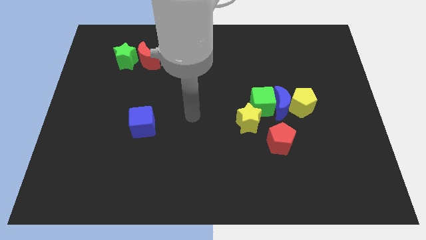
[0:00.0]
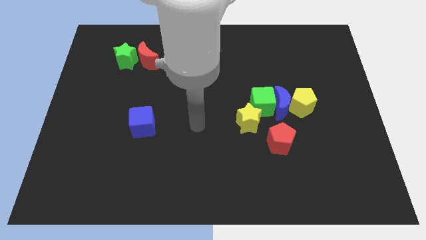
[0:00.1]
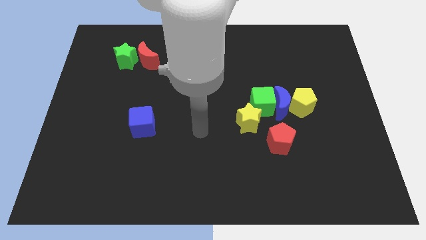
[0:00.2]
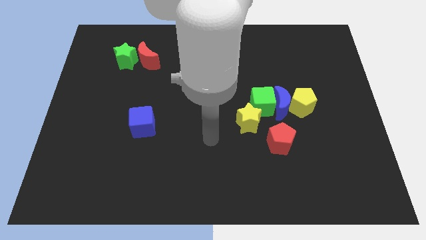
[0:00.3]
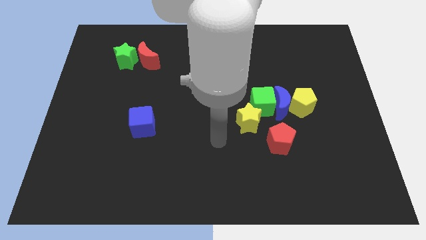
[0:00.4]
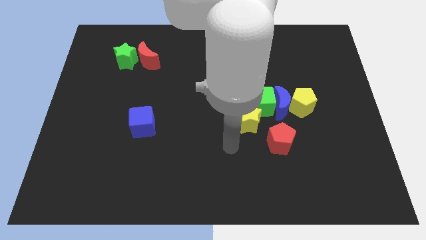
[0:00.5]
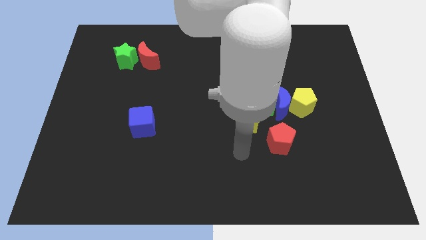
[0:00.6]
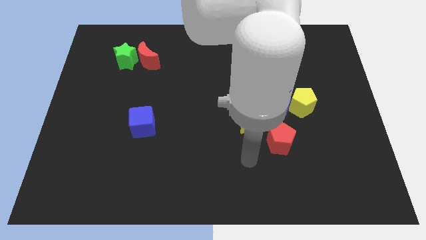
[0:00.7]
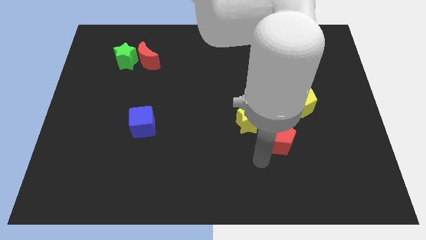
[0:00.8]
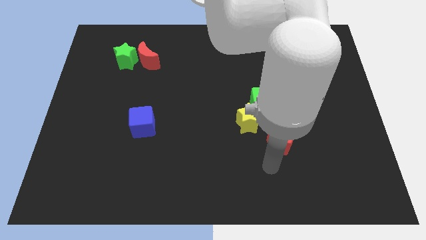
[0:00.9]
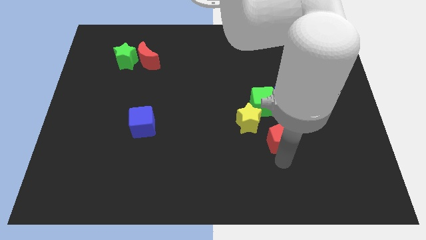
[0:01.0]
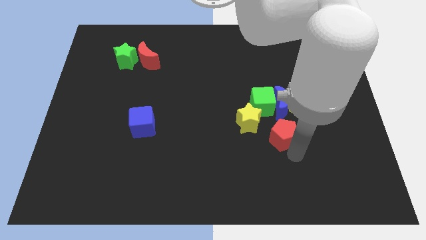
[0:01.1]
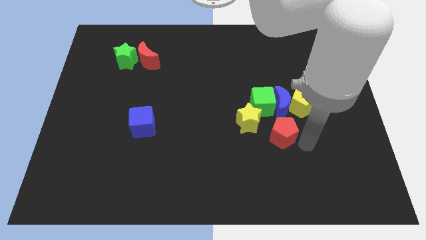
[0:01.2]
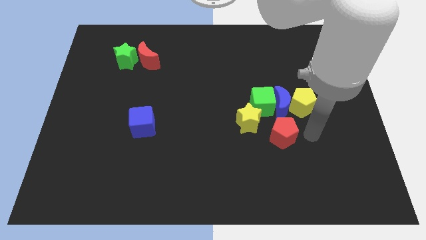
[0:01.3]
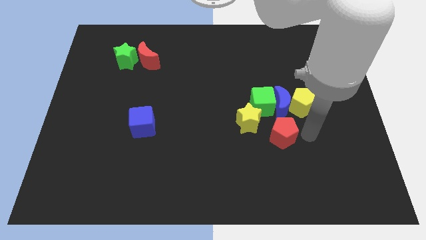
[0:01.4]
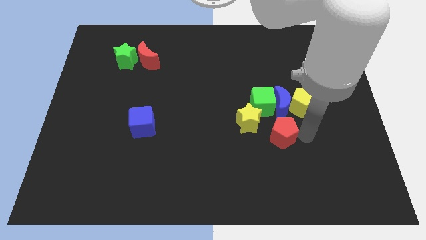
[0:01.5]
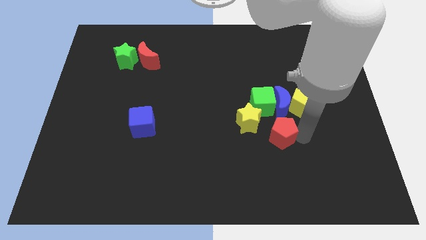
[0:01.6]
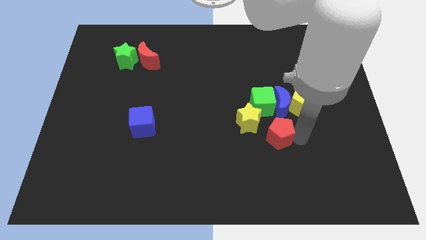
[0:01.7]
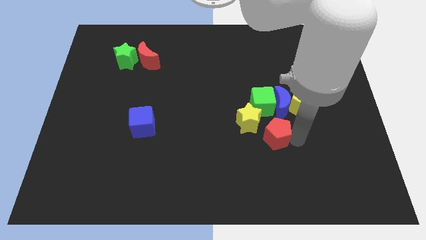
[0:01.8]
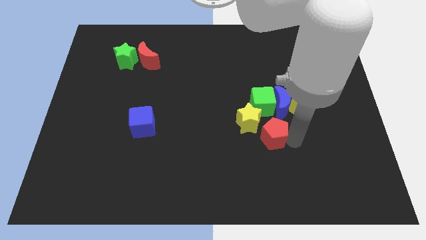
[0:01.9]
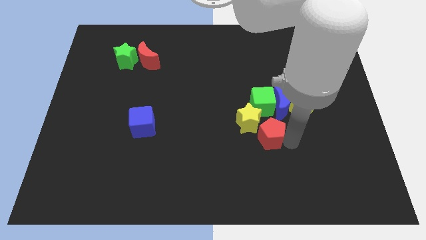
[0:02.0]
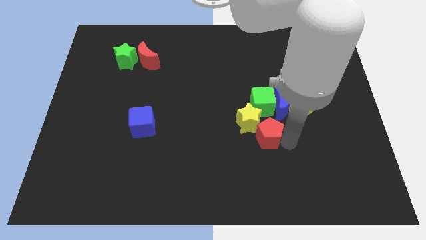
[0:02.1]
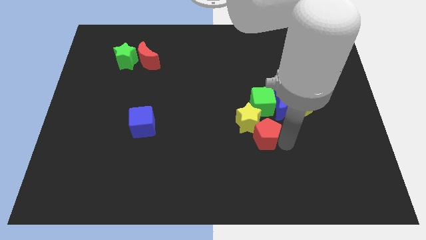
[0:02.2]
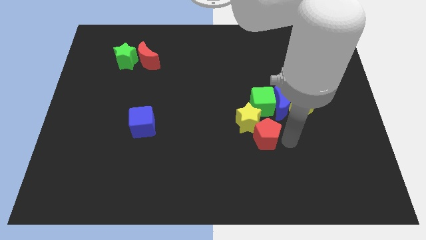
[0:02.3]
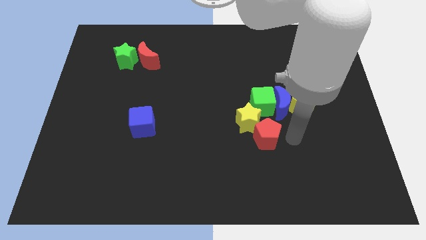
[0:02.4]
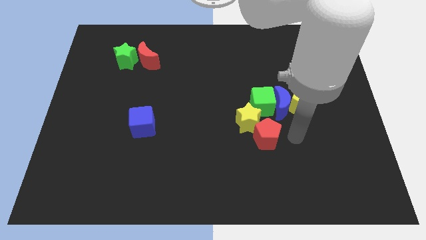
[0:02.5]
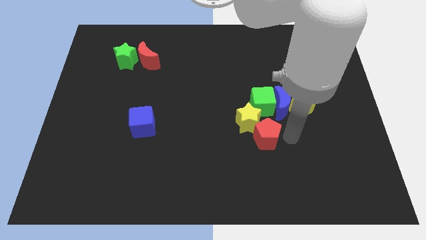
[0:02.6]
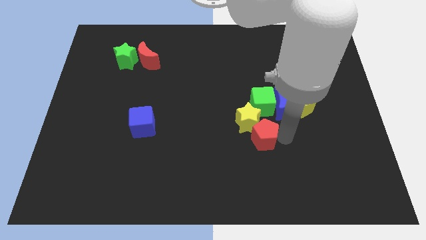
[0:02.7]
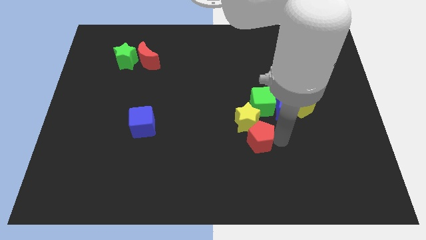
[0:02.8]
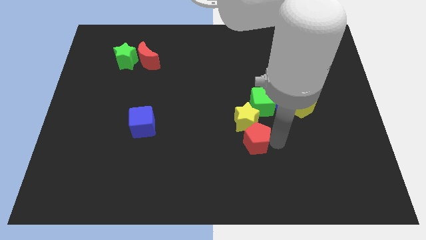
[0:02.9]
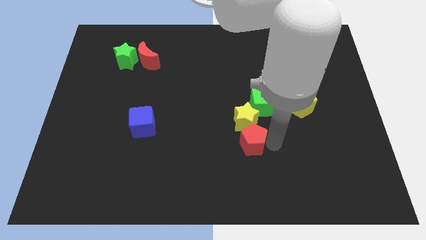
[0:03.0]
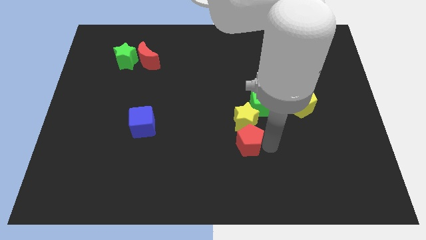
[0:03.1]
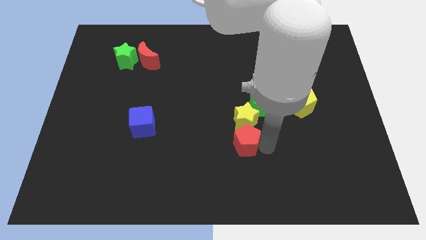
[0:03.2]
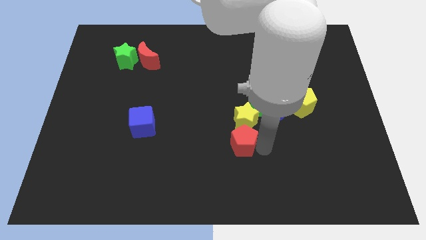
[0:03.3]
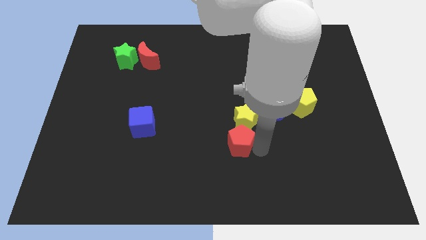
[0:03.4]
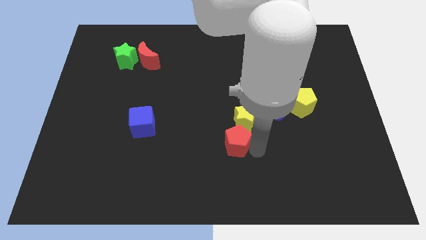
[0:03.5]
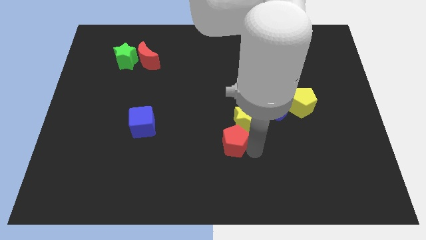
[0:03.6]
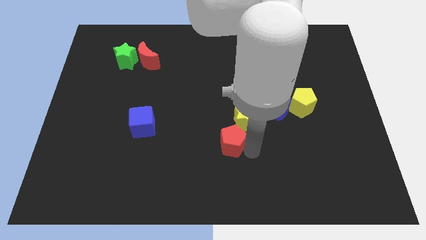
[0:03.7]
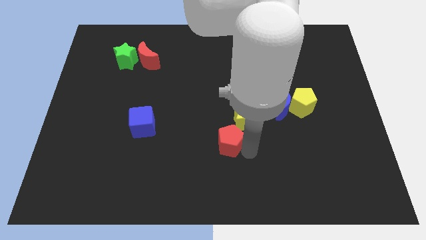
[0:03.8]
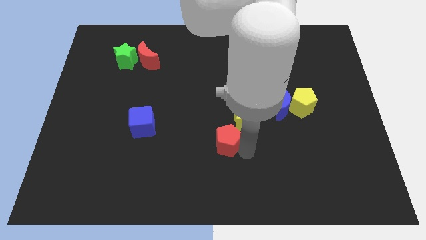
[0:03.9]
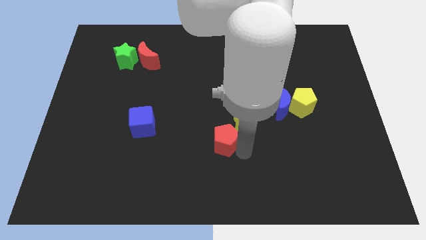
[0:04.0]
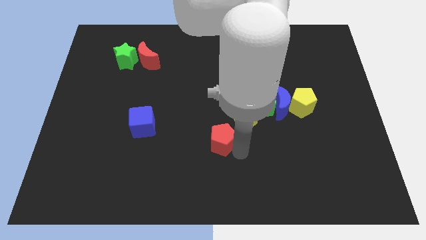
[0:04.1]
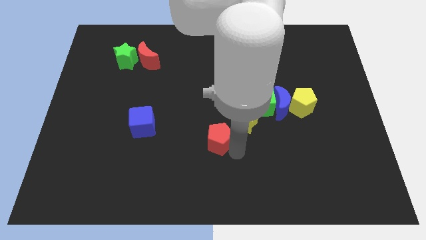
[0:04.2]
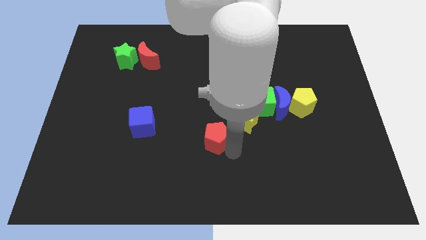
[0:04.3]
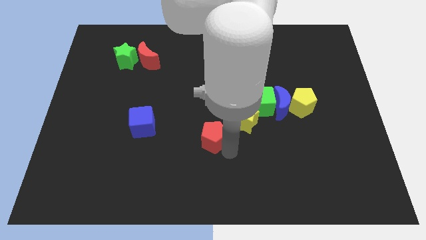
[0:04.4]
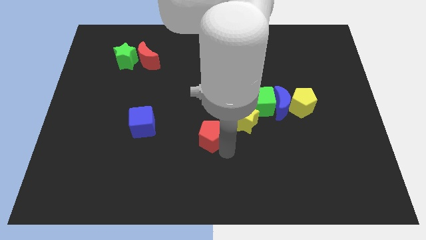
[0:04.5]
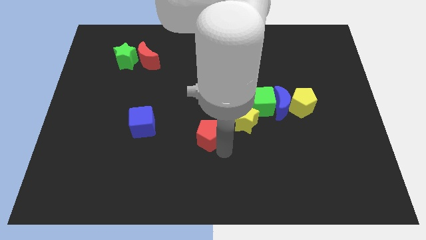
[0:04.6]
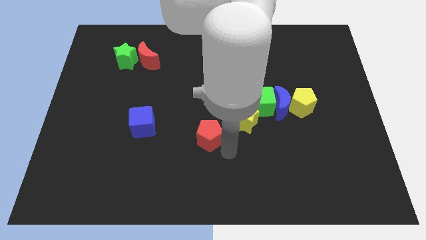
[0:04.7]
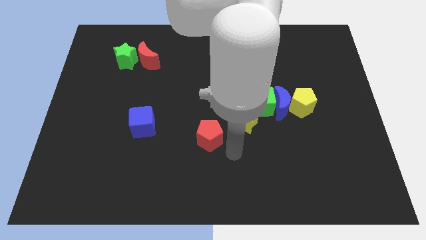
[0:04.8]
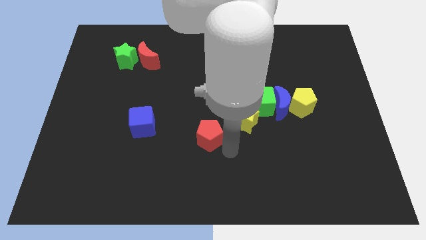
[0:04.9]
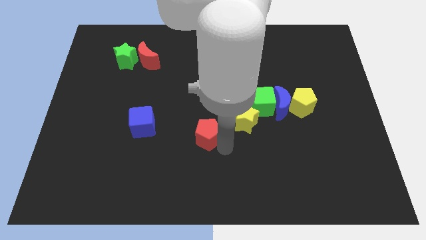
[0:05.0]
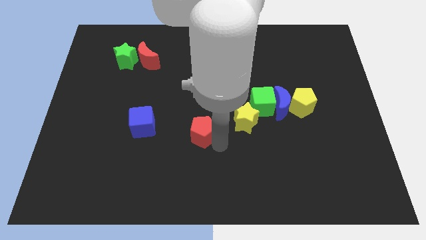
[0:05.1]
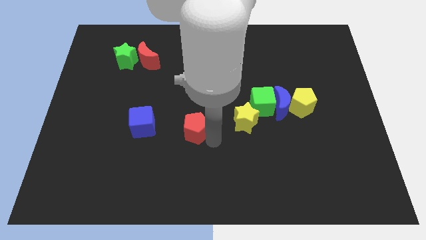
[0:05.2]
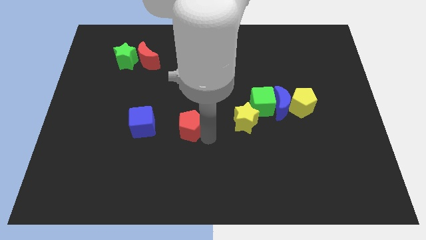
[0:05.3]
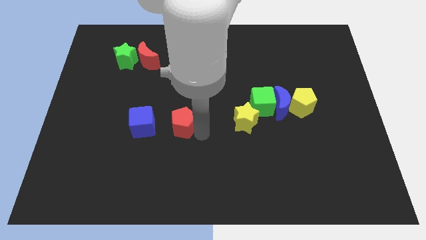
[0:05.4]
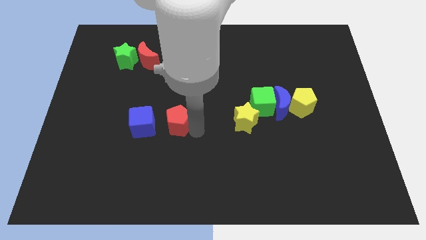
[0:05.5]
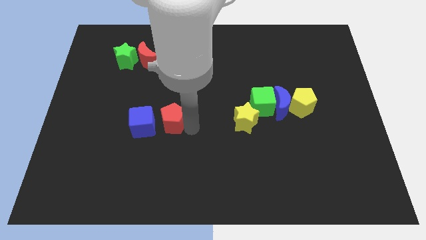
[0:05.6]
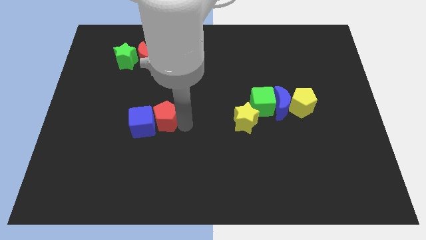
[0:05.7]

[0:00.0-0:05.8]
push the red pentagon next to the blue cube

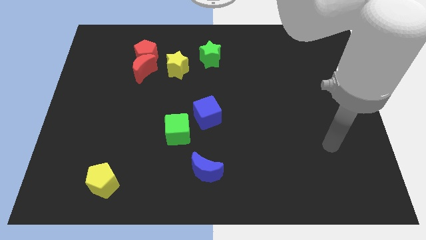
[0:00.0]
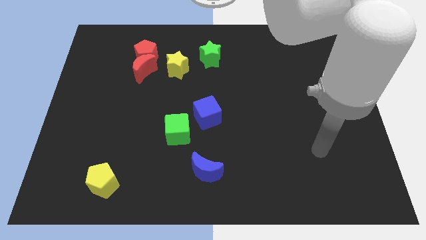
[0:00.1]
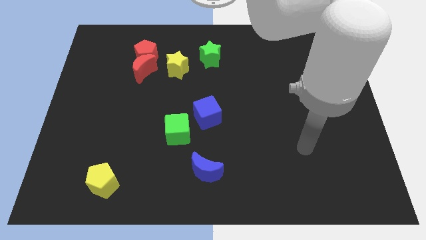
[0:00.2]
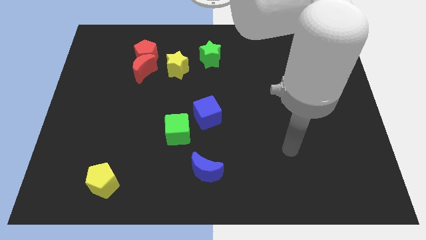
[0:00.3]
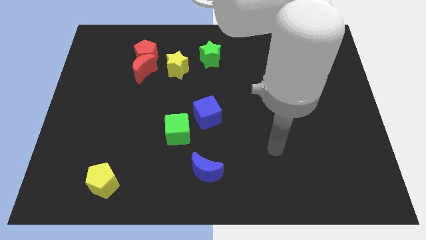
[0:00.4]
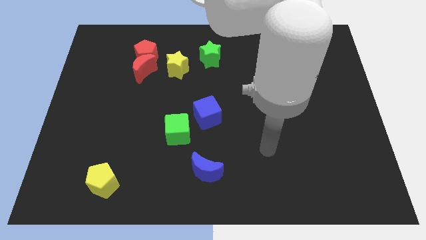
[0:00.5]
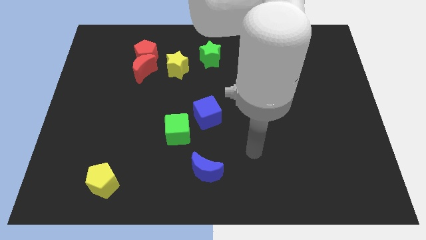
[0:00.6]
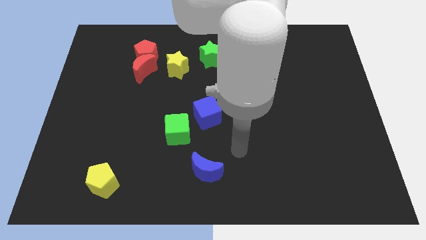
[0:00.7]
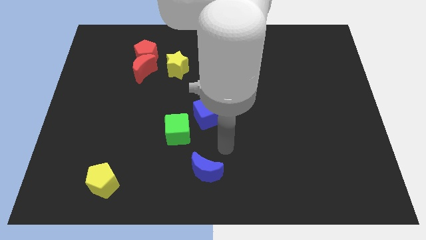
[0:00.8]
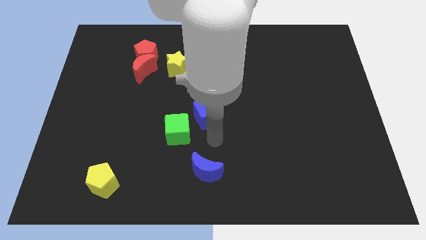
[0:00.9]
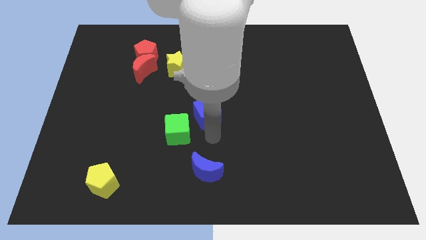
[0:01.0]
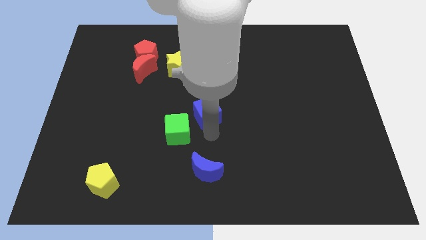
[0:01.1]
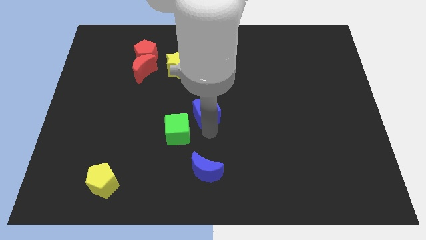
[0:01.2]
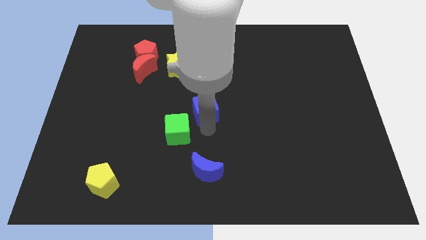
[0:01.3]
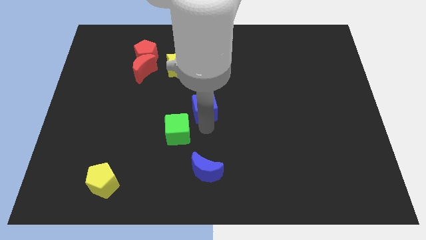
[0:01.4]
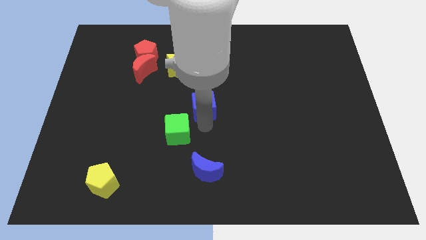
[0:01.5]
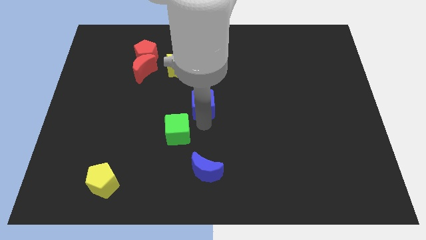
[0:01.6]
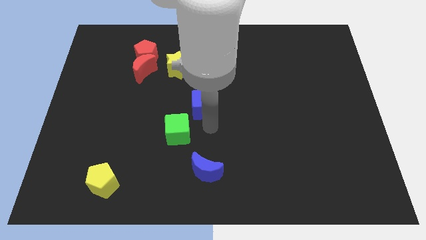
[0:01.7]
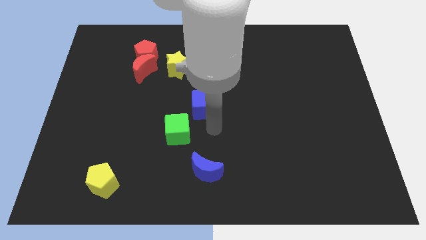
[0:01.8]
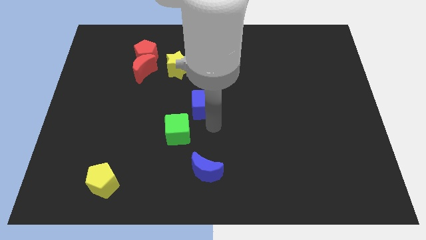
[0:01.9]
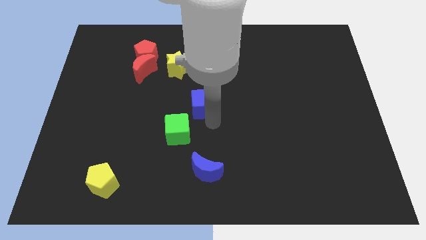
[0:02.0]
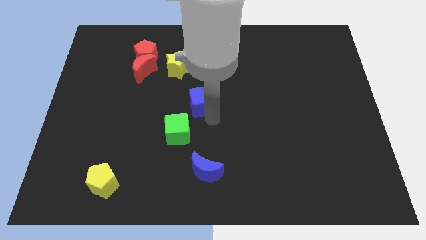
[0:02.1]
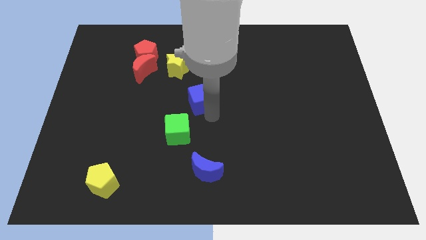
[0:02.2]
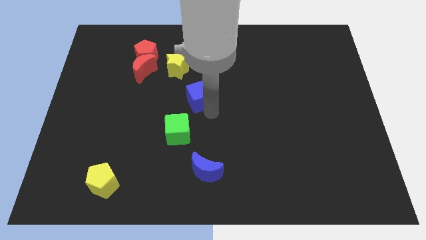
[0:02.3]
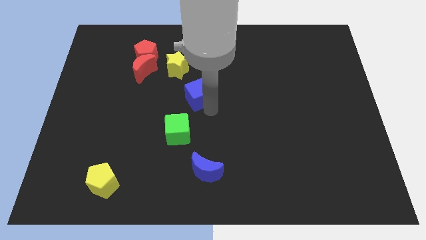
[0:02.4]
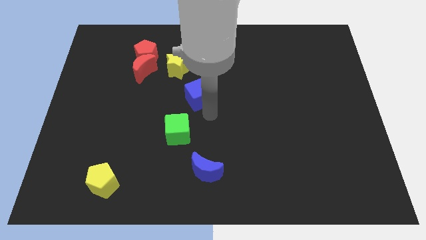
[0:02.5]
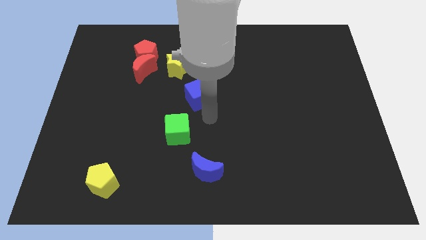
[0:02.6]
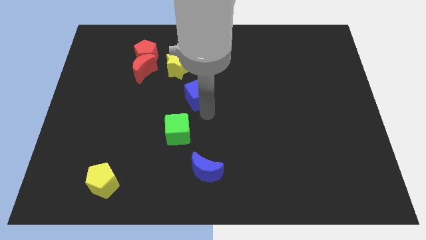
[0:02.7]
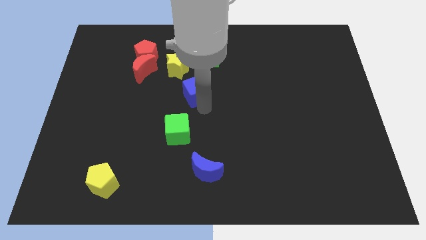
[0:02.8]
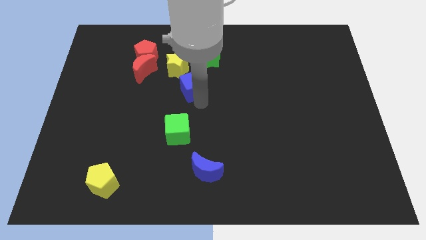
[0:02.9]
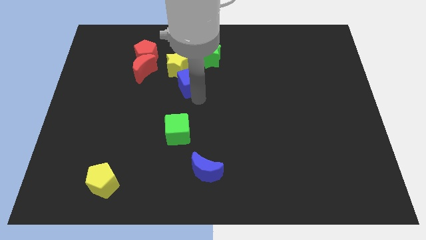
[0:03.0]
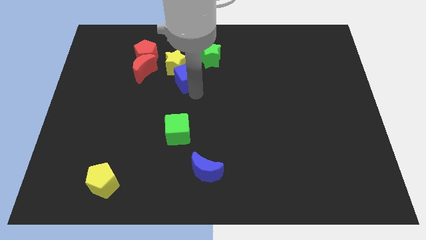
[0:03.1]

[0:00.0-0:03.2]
slide the blue cube to the yellow star
